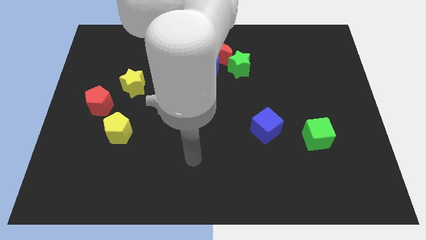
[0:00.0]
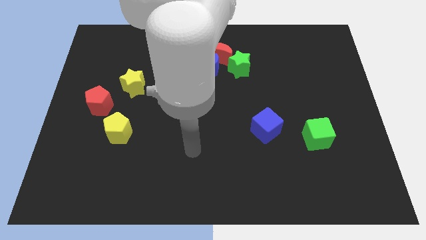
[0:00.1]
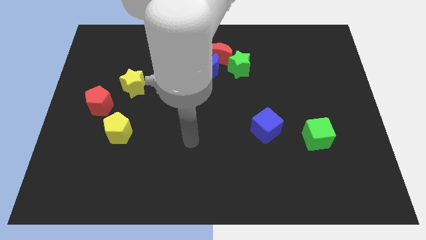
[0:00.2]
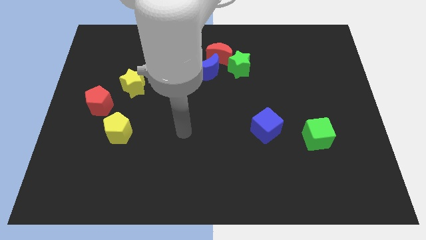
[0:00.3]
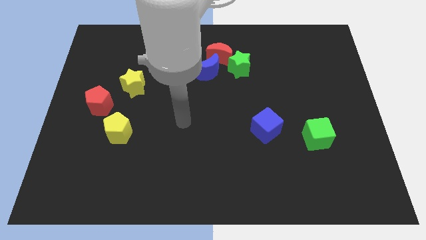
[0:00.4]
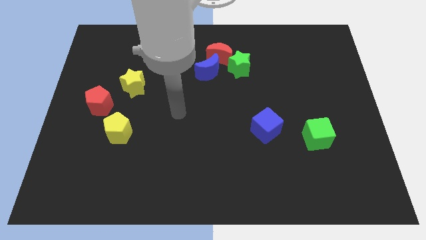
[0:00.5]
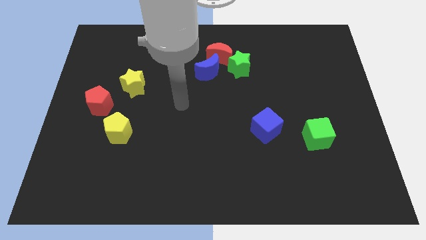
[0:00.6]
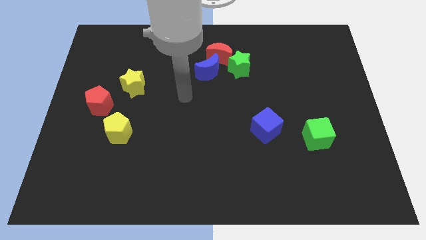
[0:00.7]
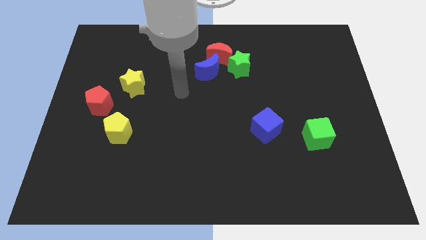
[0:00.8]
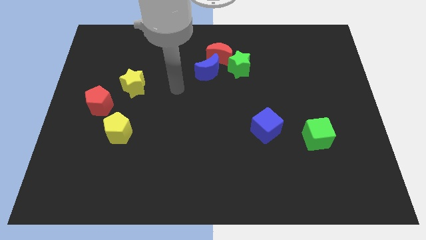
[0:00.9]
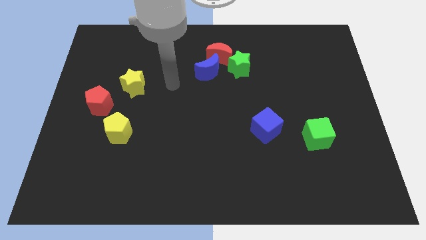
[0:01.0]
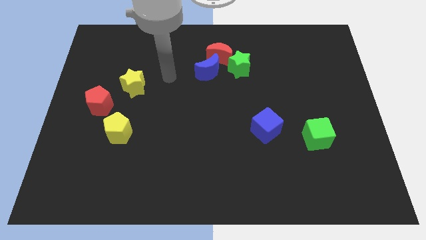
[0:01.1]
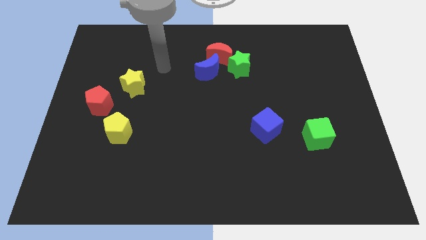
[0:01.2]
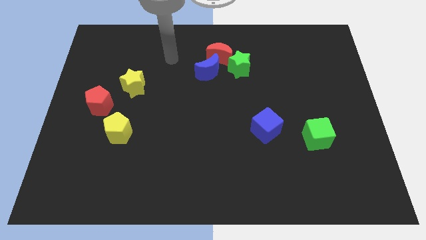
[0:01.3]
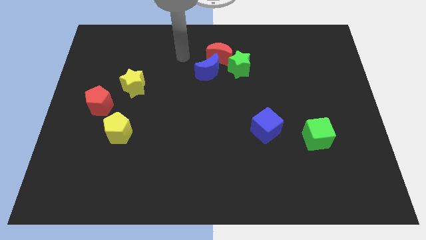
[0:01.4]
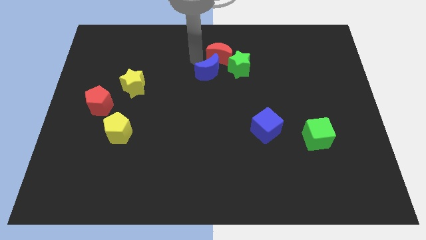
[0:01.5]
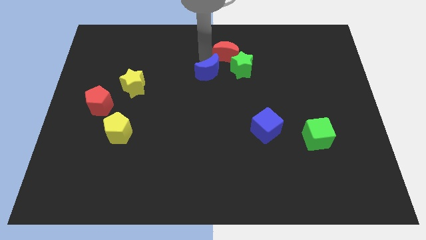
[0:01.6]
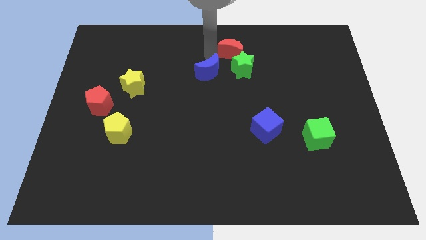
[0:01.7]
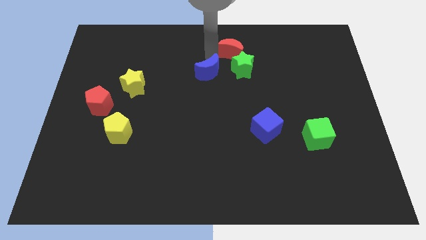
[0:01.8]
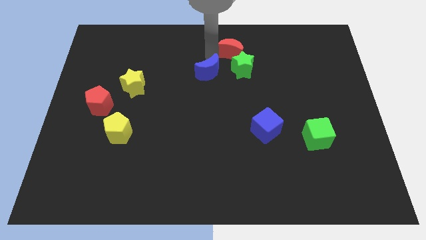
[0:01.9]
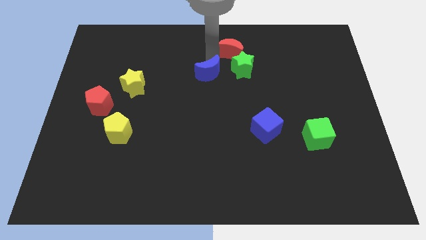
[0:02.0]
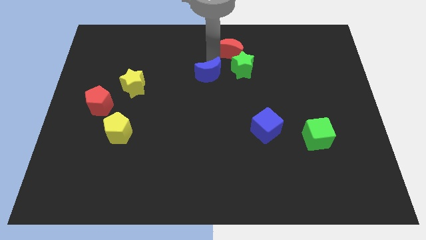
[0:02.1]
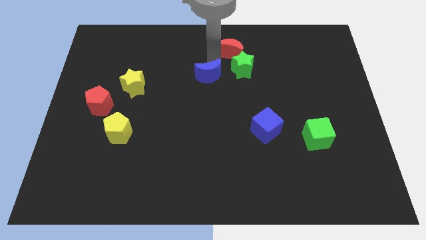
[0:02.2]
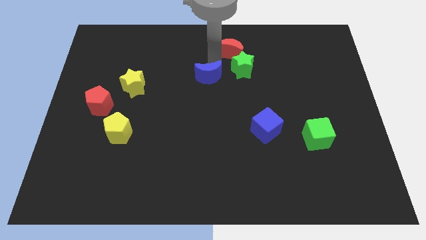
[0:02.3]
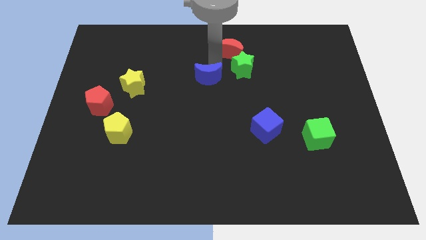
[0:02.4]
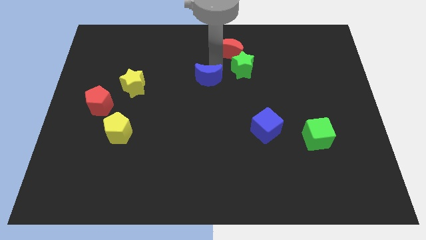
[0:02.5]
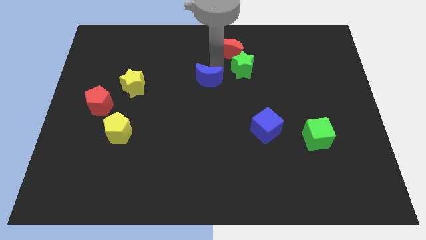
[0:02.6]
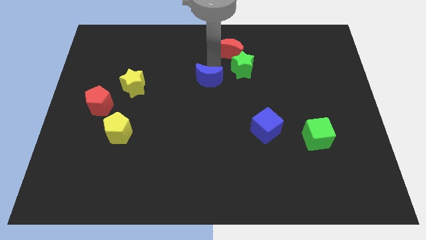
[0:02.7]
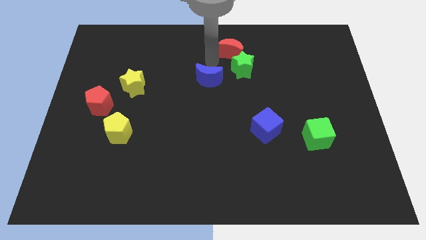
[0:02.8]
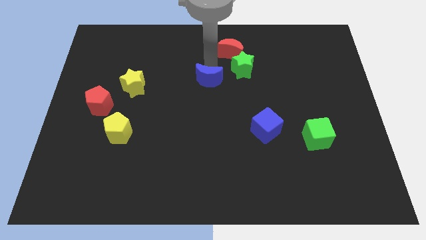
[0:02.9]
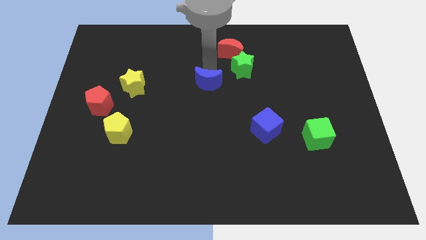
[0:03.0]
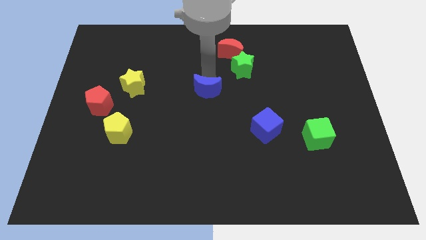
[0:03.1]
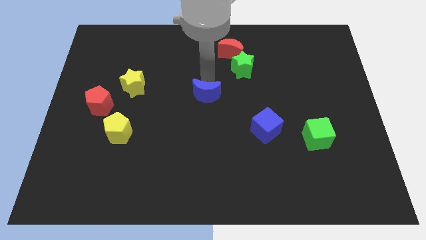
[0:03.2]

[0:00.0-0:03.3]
slightly push the blue moon downwards

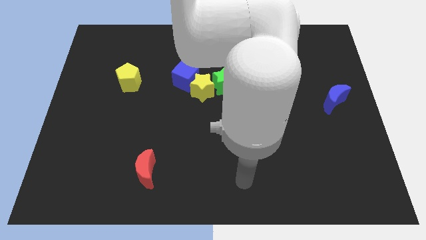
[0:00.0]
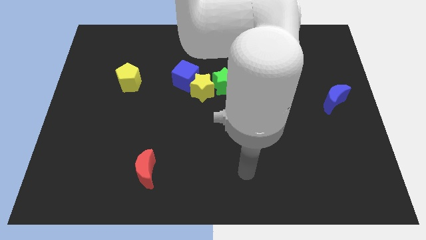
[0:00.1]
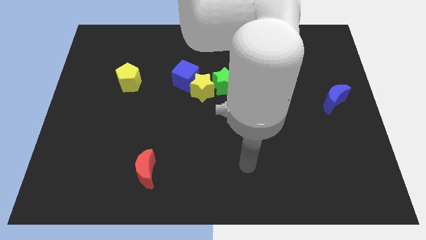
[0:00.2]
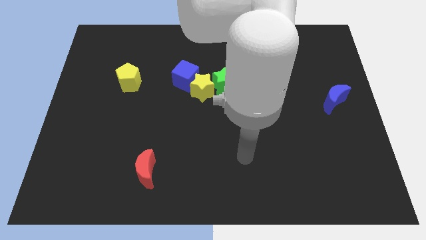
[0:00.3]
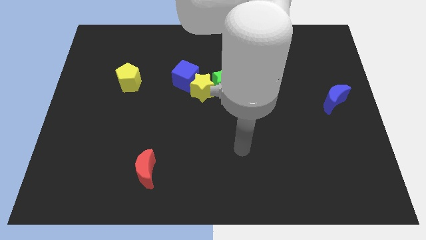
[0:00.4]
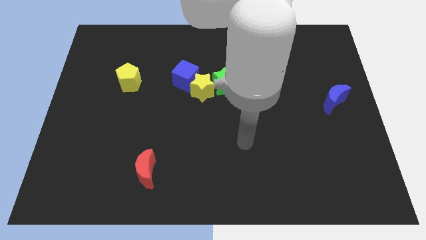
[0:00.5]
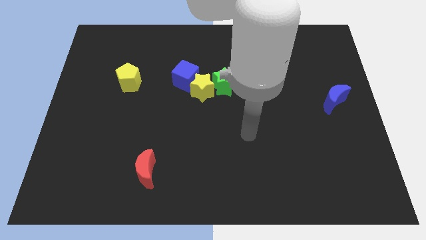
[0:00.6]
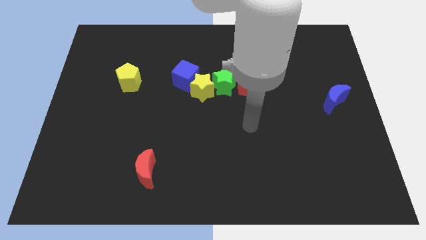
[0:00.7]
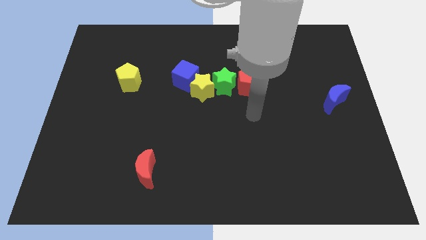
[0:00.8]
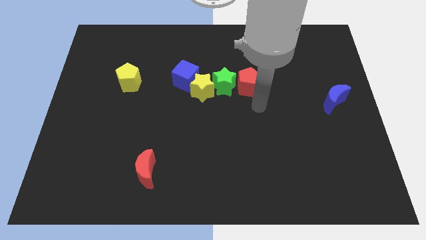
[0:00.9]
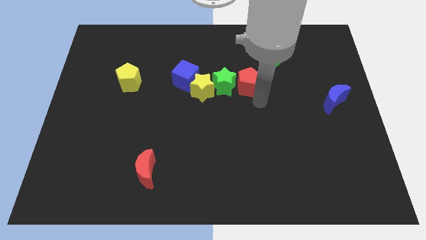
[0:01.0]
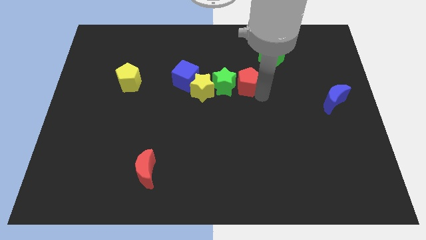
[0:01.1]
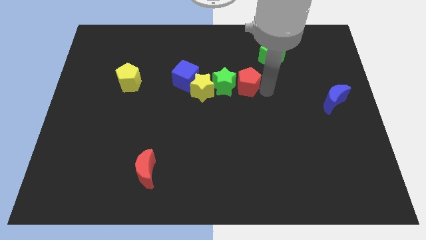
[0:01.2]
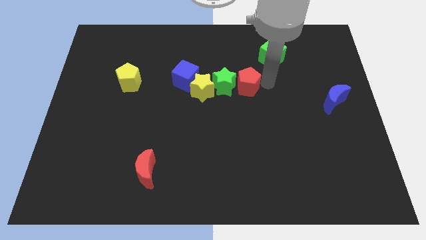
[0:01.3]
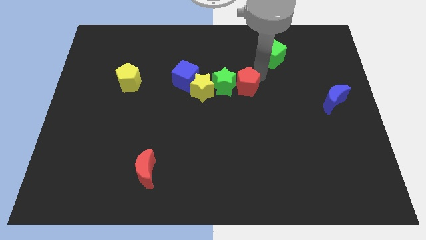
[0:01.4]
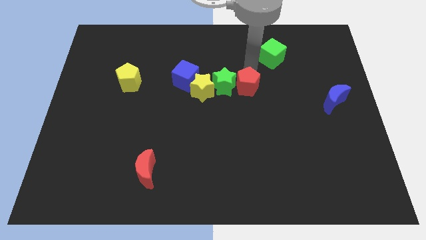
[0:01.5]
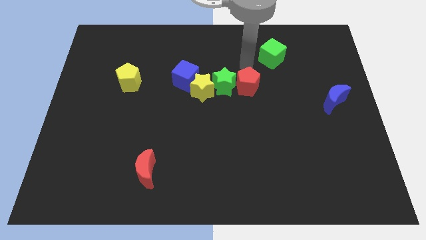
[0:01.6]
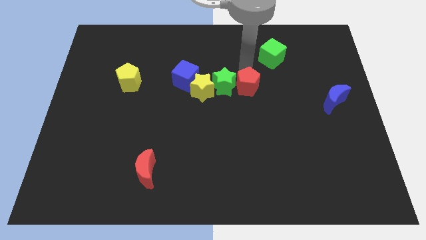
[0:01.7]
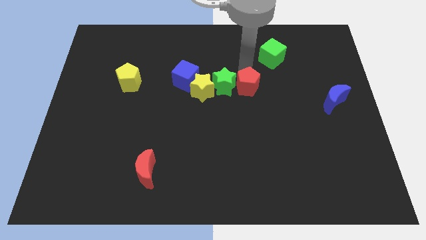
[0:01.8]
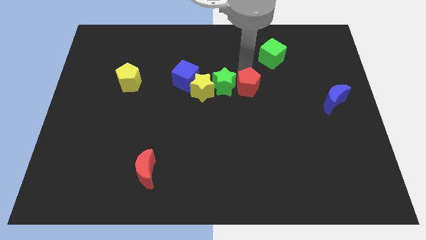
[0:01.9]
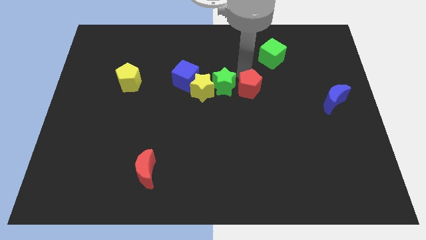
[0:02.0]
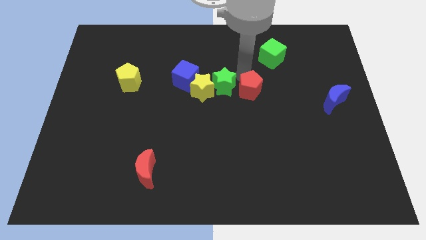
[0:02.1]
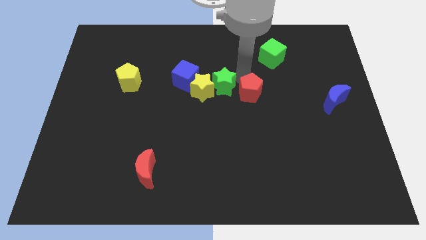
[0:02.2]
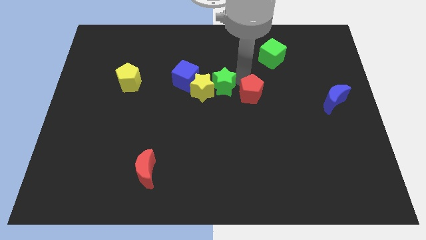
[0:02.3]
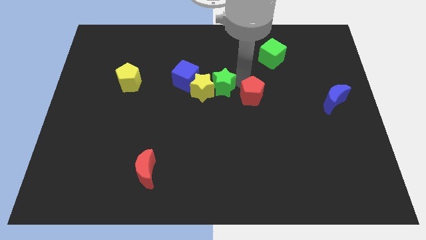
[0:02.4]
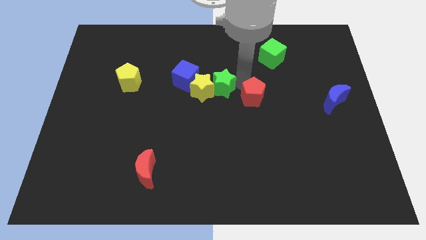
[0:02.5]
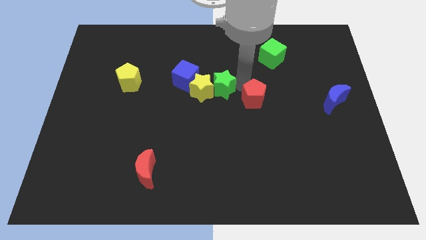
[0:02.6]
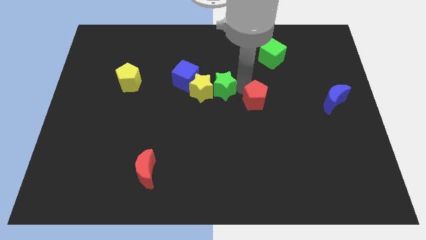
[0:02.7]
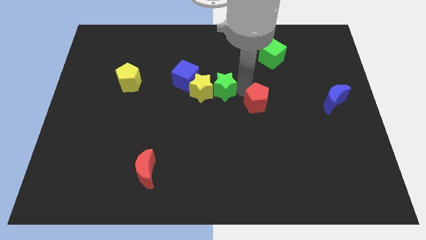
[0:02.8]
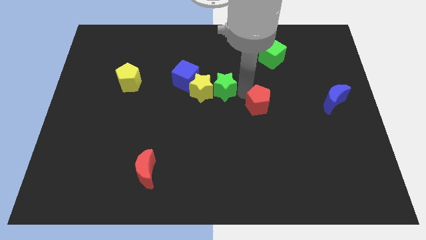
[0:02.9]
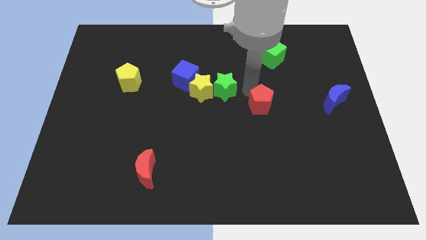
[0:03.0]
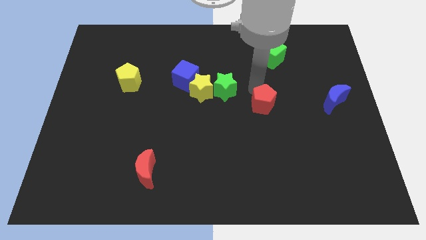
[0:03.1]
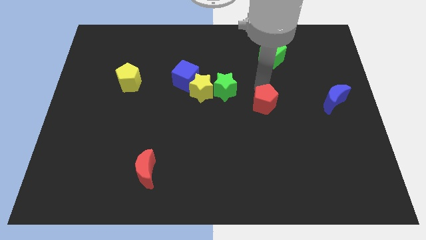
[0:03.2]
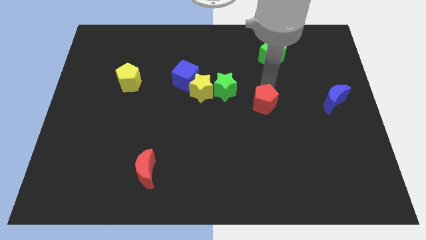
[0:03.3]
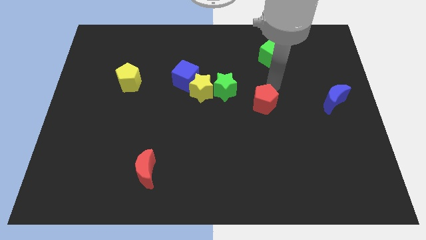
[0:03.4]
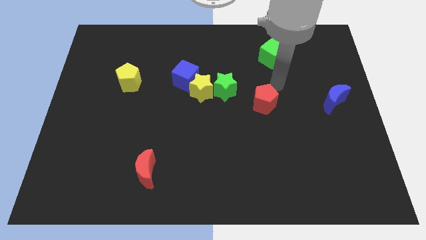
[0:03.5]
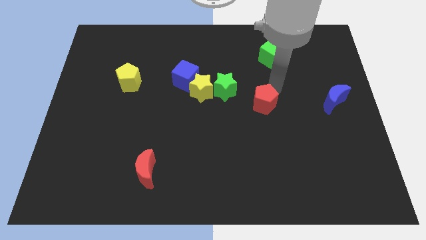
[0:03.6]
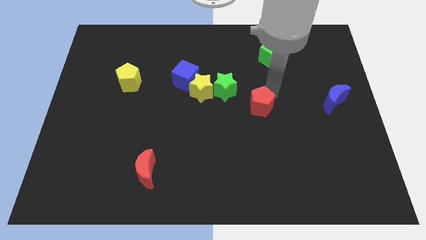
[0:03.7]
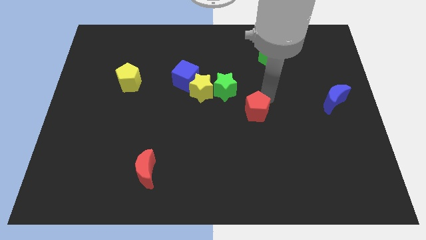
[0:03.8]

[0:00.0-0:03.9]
slide the red pentagon downwards a little bit

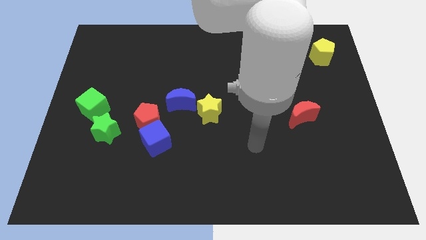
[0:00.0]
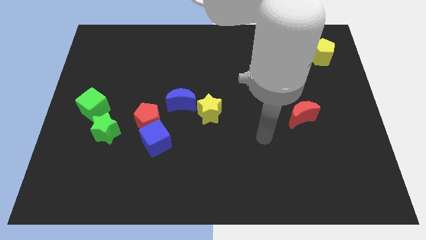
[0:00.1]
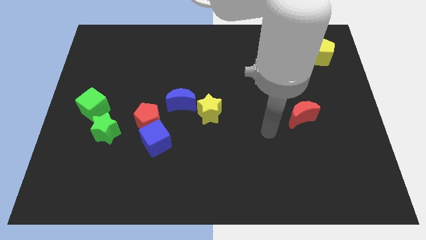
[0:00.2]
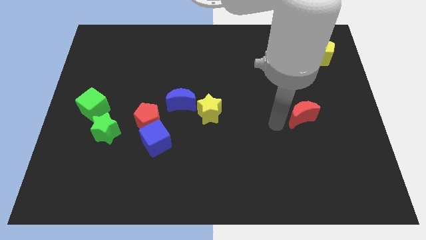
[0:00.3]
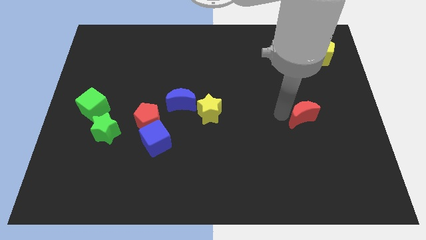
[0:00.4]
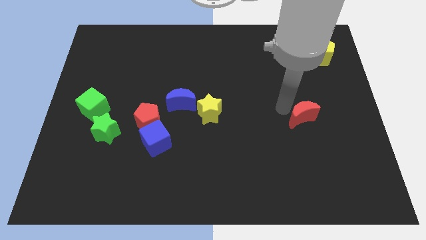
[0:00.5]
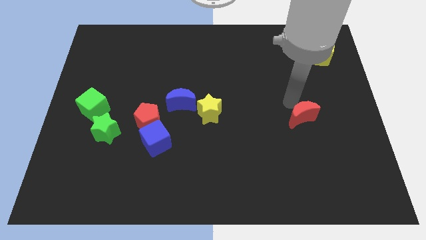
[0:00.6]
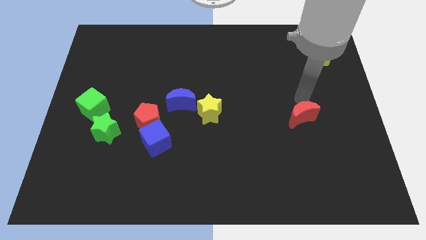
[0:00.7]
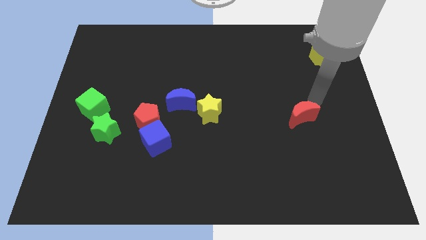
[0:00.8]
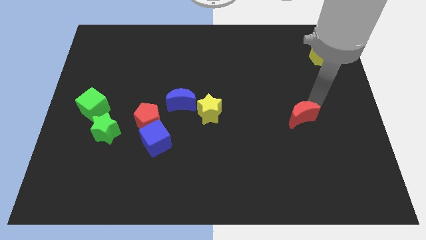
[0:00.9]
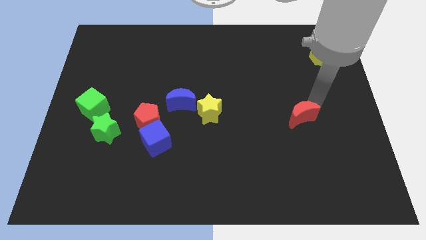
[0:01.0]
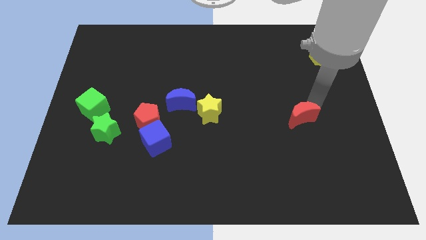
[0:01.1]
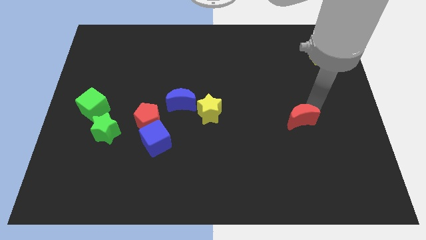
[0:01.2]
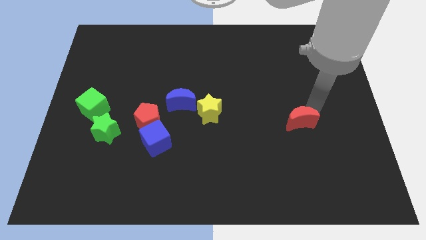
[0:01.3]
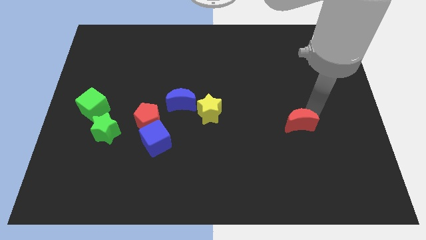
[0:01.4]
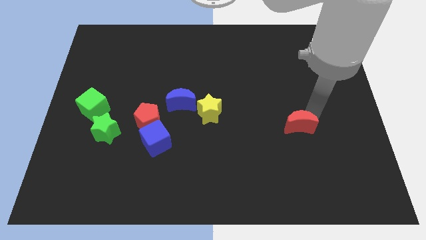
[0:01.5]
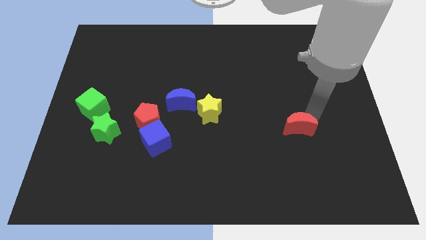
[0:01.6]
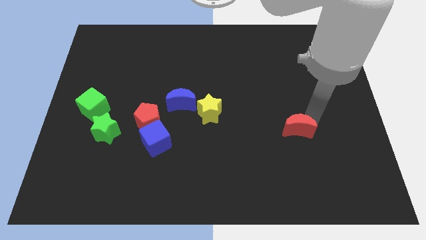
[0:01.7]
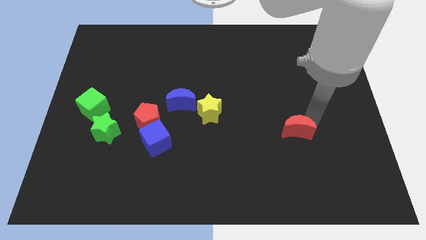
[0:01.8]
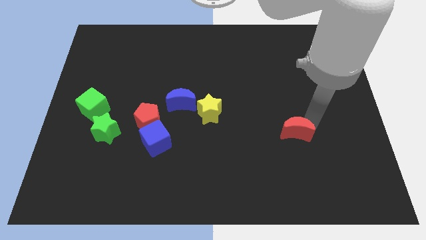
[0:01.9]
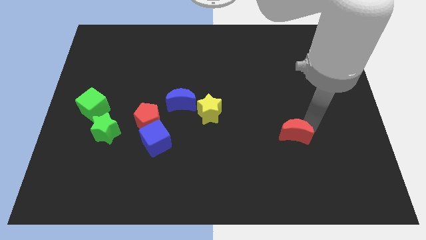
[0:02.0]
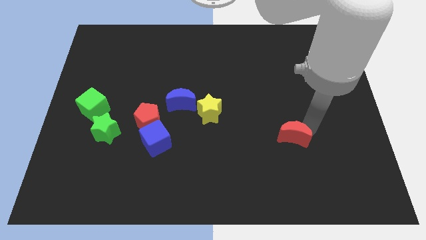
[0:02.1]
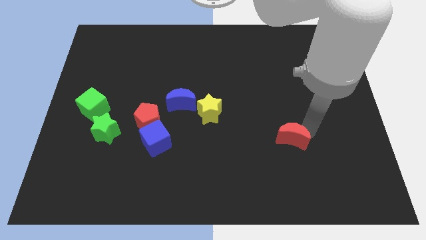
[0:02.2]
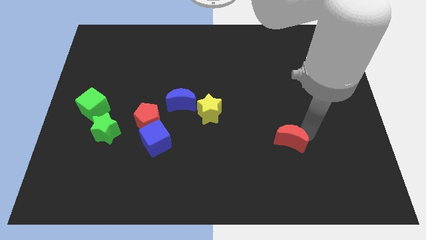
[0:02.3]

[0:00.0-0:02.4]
push the red moon a little down and then to the left
